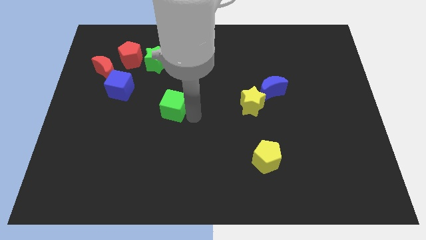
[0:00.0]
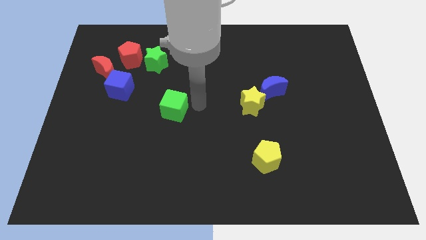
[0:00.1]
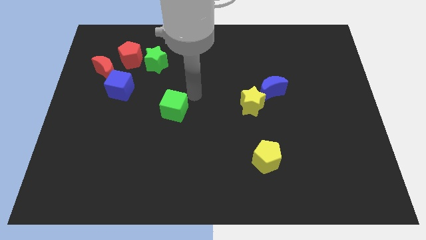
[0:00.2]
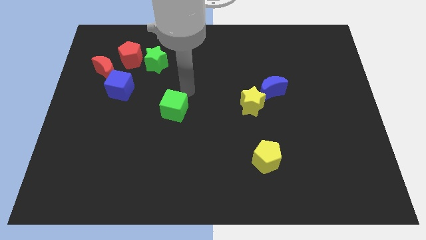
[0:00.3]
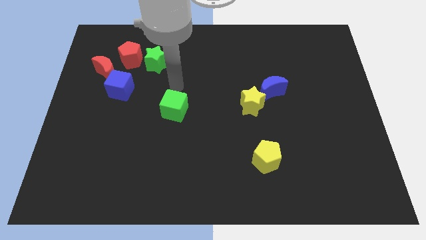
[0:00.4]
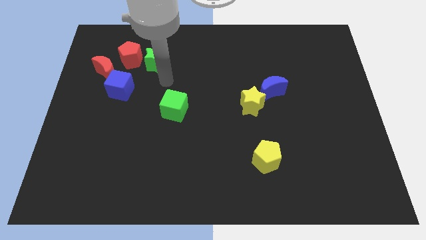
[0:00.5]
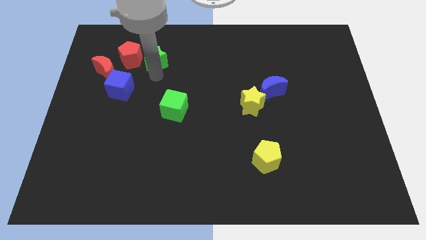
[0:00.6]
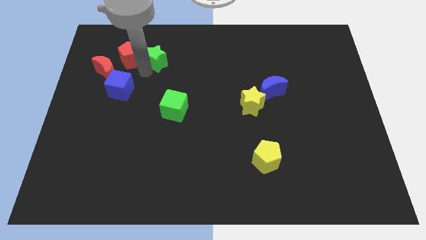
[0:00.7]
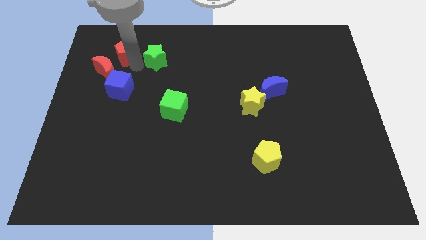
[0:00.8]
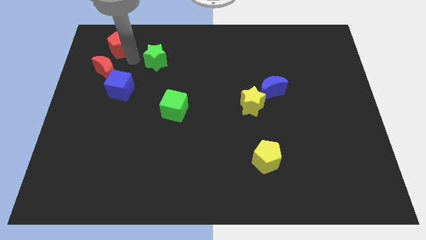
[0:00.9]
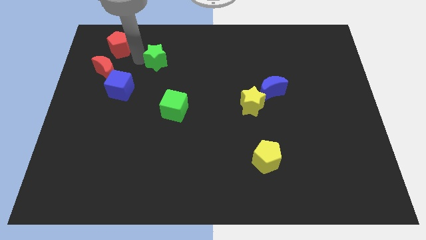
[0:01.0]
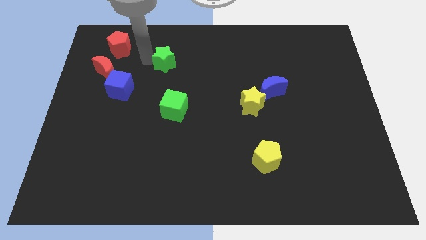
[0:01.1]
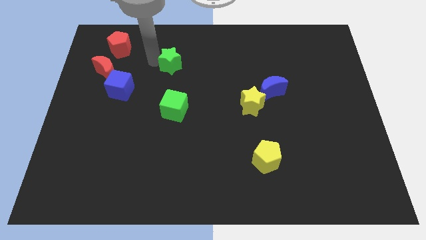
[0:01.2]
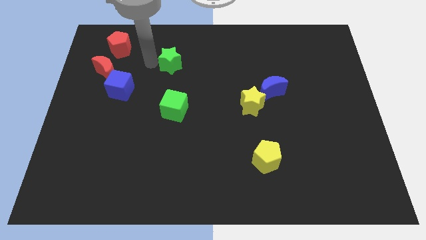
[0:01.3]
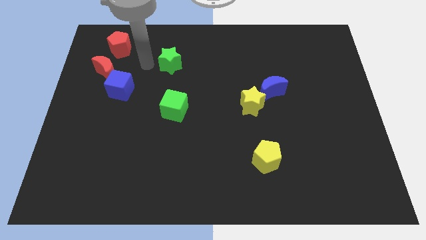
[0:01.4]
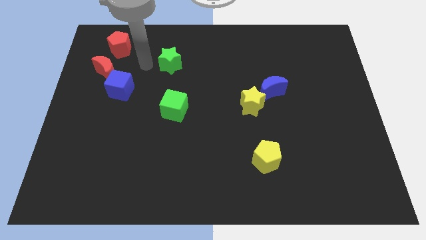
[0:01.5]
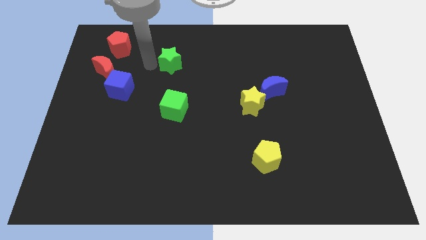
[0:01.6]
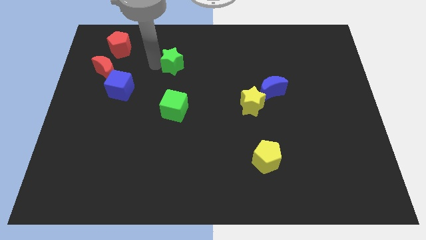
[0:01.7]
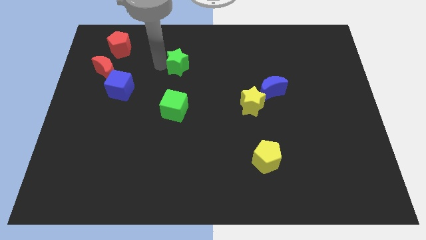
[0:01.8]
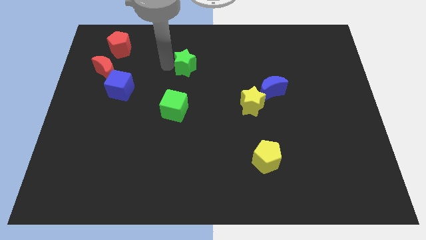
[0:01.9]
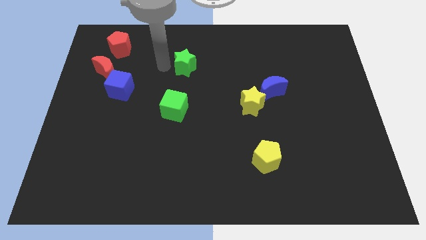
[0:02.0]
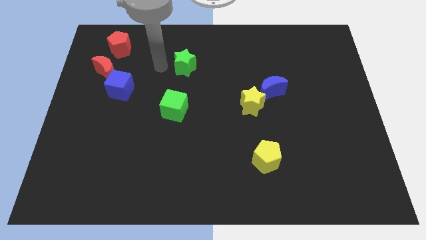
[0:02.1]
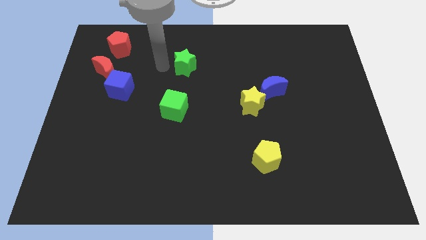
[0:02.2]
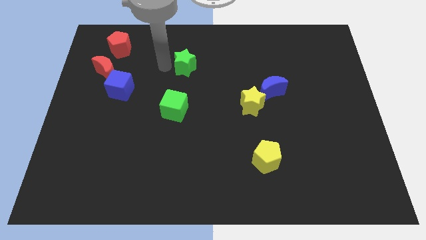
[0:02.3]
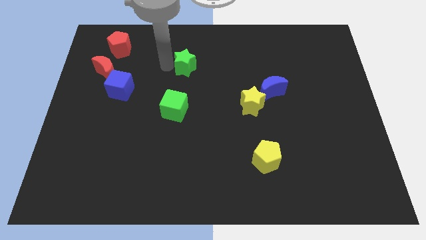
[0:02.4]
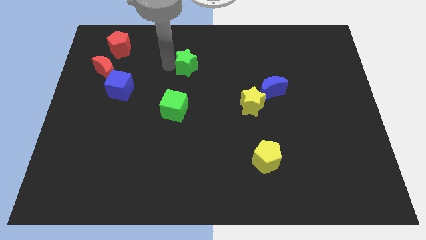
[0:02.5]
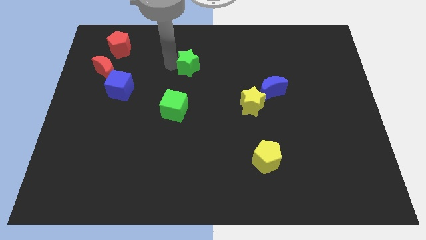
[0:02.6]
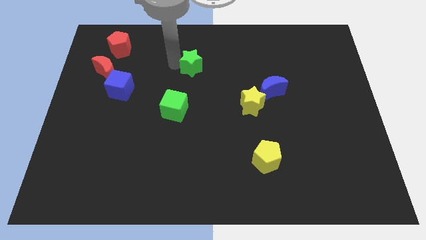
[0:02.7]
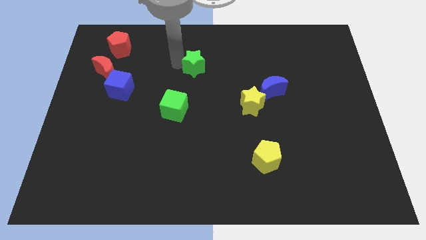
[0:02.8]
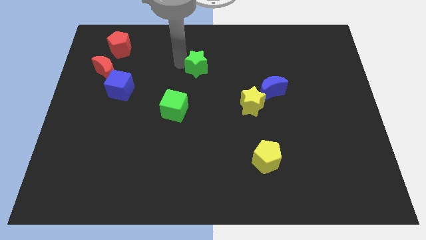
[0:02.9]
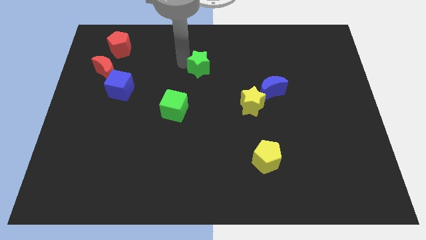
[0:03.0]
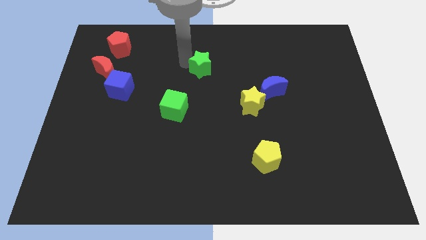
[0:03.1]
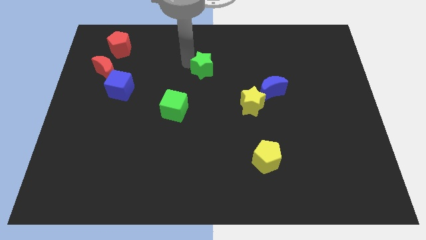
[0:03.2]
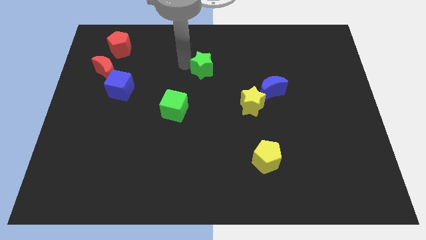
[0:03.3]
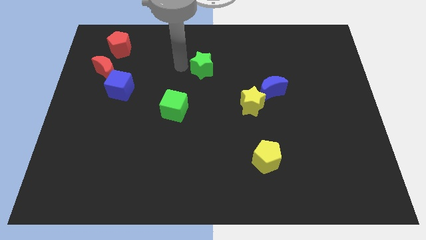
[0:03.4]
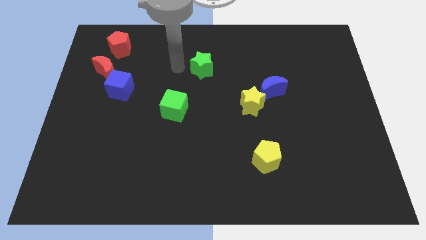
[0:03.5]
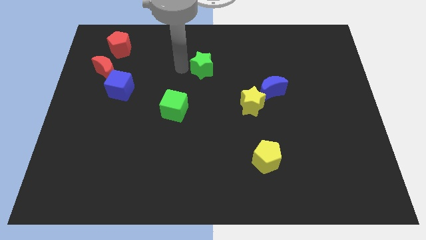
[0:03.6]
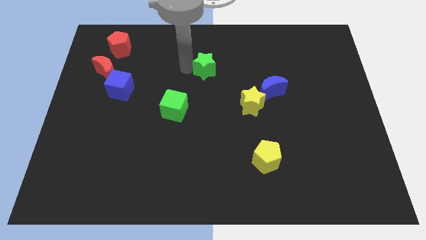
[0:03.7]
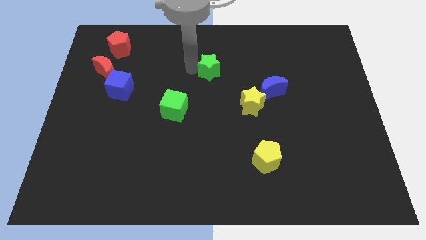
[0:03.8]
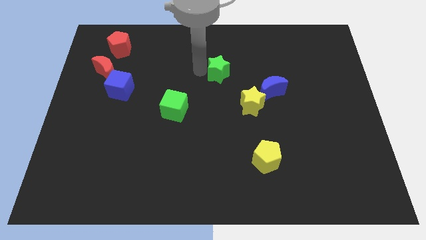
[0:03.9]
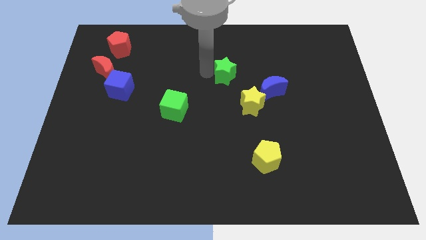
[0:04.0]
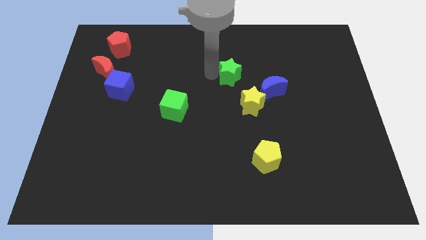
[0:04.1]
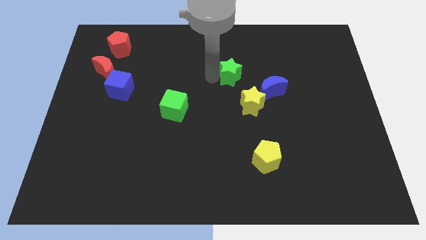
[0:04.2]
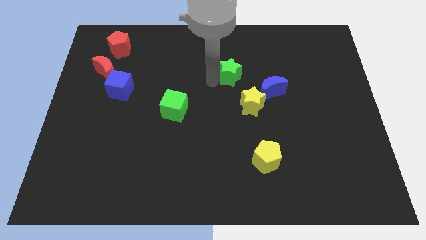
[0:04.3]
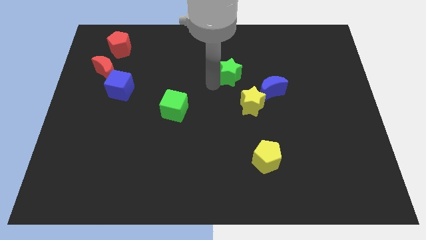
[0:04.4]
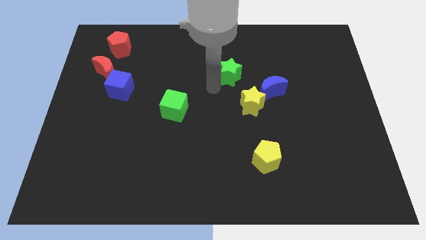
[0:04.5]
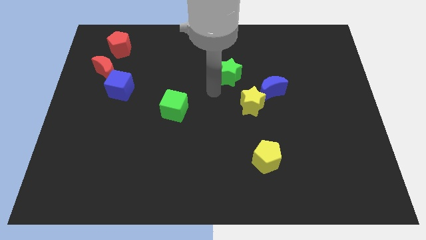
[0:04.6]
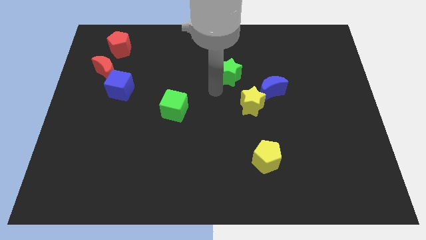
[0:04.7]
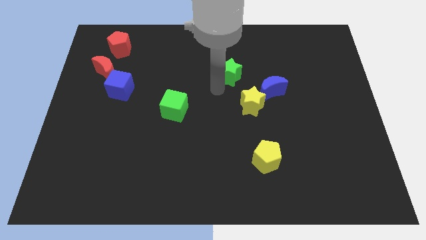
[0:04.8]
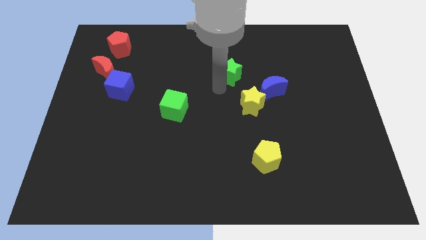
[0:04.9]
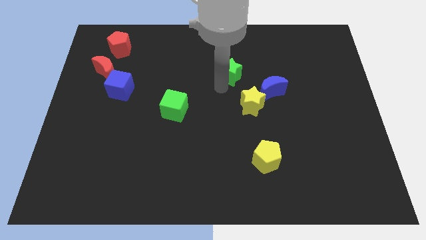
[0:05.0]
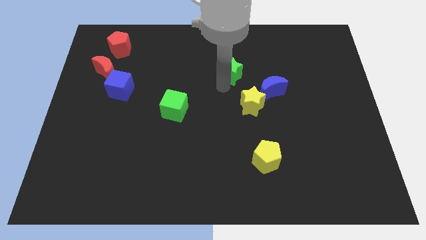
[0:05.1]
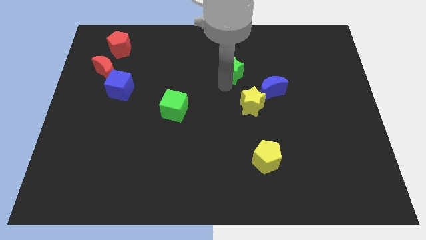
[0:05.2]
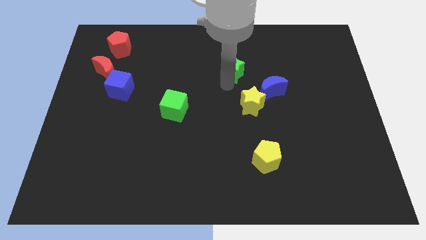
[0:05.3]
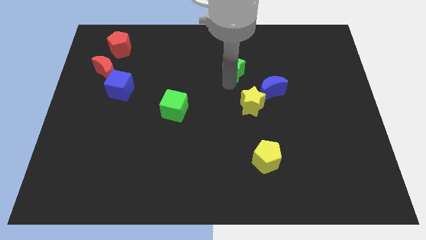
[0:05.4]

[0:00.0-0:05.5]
push the green star to the right

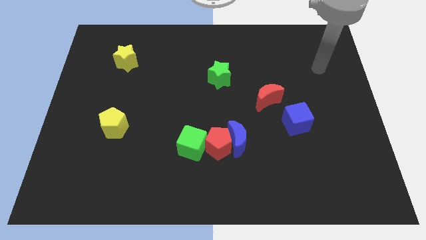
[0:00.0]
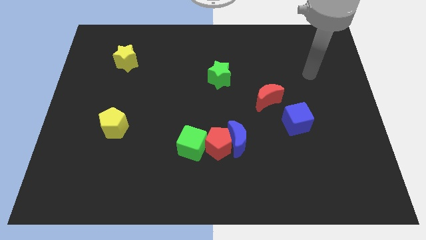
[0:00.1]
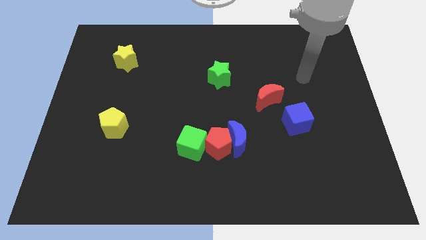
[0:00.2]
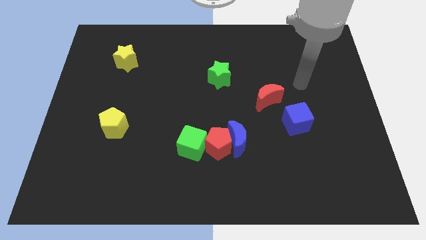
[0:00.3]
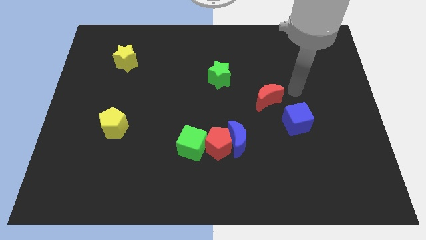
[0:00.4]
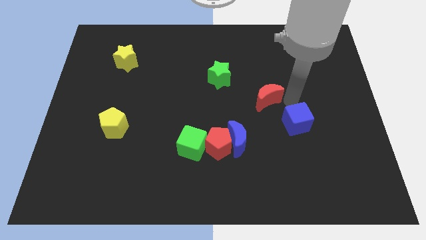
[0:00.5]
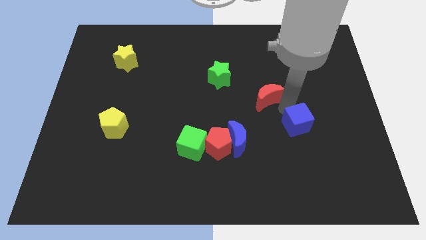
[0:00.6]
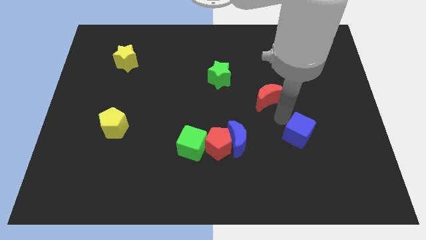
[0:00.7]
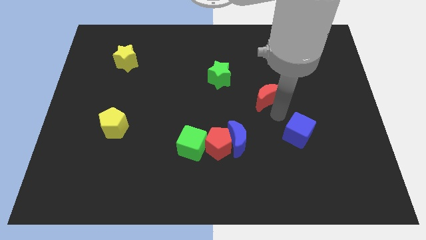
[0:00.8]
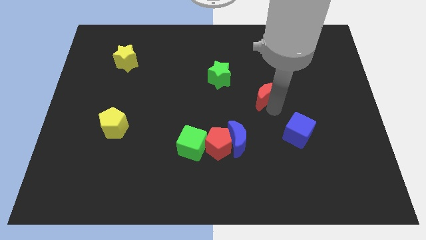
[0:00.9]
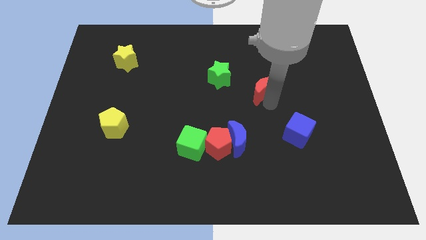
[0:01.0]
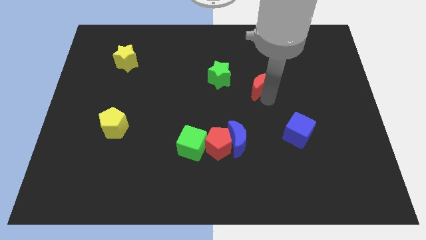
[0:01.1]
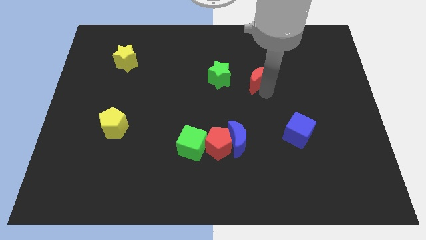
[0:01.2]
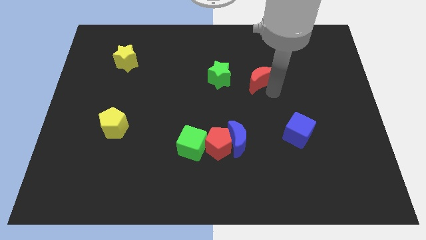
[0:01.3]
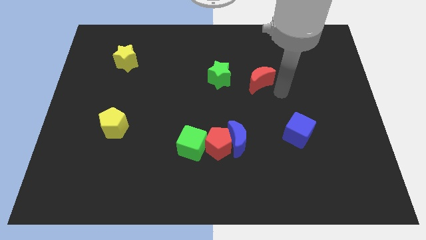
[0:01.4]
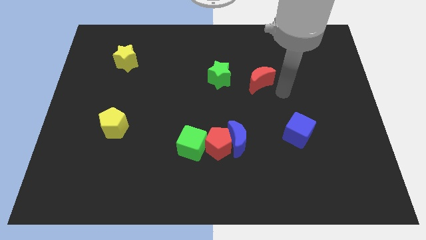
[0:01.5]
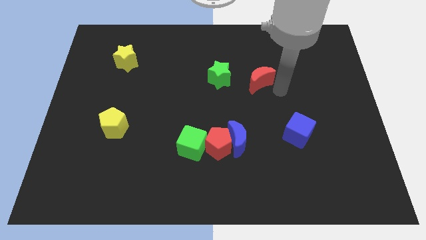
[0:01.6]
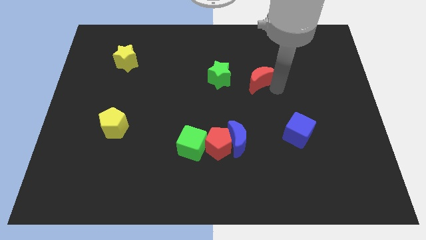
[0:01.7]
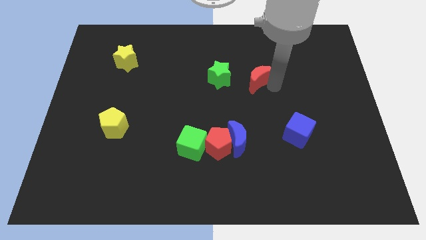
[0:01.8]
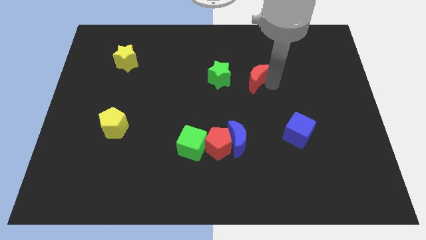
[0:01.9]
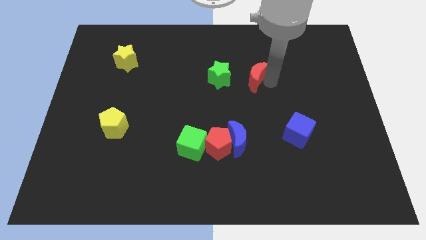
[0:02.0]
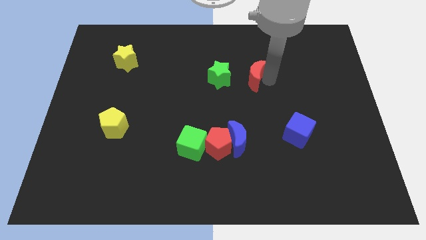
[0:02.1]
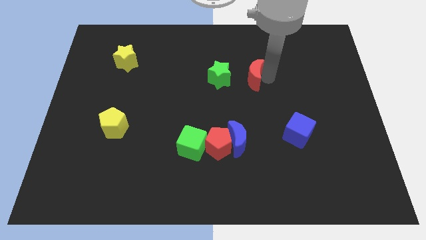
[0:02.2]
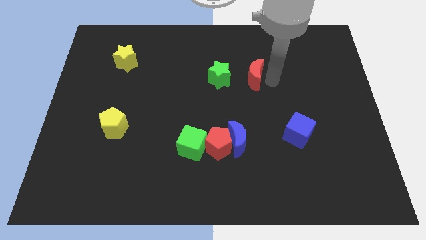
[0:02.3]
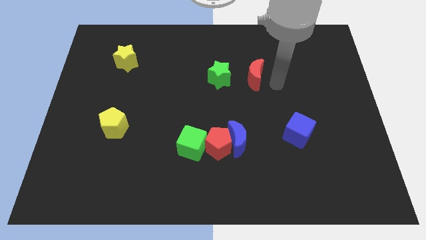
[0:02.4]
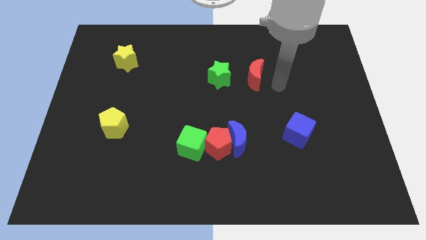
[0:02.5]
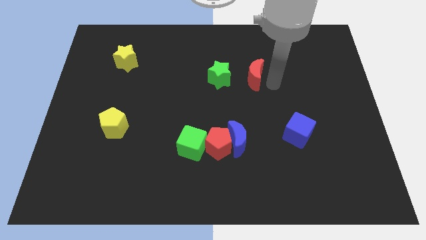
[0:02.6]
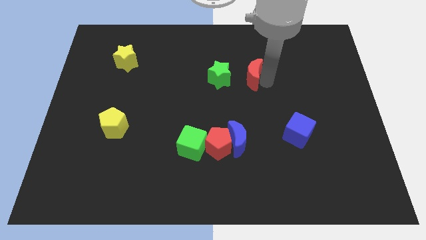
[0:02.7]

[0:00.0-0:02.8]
slide the red moon diagonally upwards and left slightly
